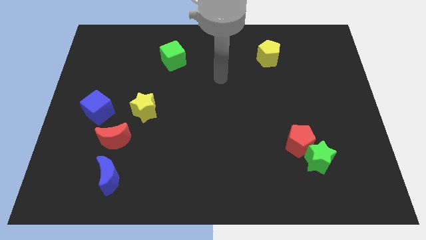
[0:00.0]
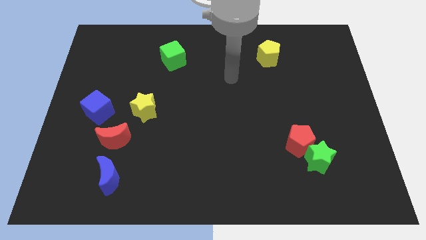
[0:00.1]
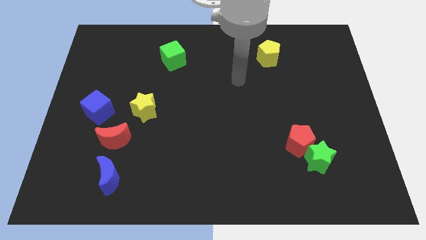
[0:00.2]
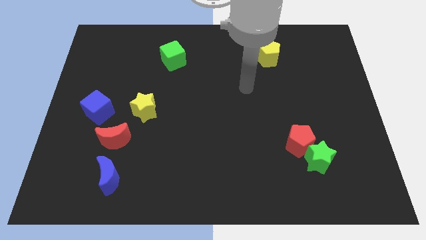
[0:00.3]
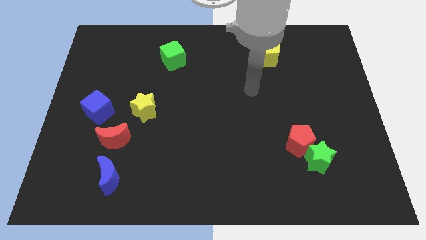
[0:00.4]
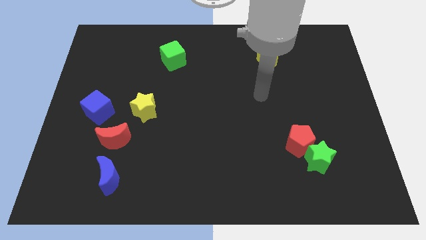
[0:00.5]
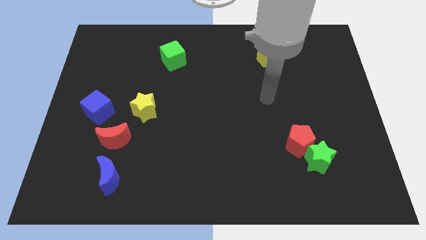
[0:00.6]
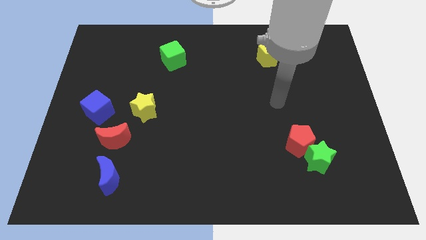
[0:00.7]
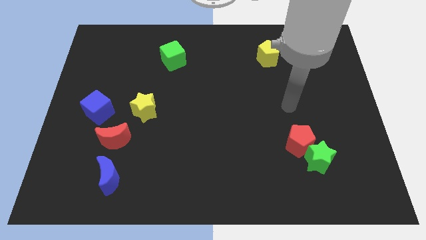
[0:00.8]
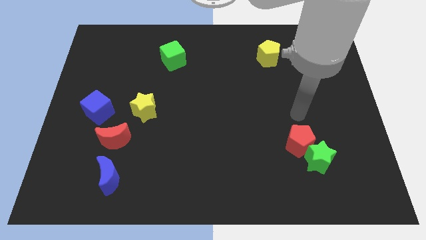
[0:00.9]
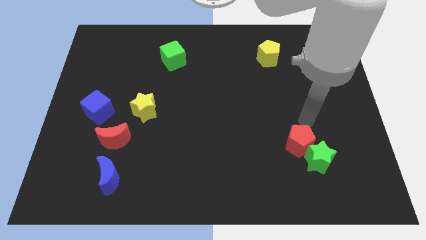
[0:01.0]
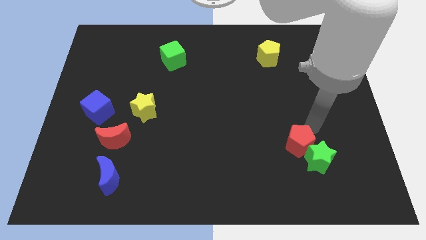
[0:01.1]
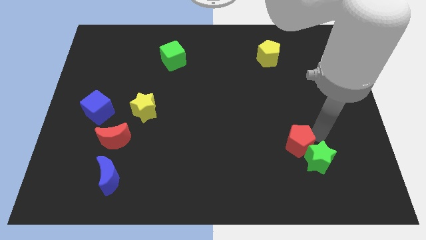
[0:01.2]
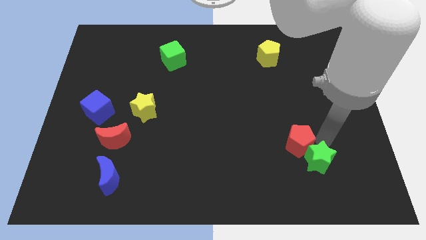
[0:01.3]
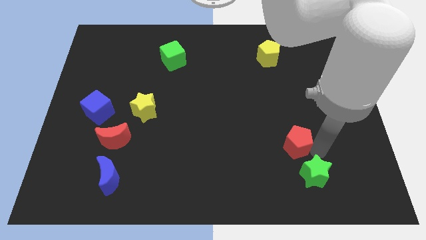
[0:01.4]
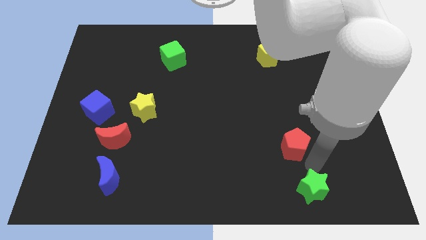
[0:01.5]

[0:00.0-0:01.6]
separate the red pentagon from the green star

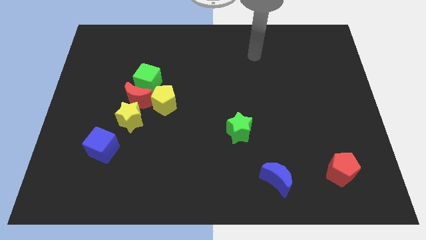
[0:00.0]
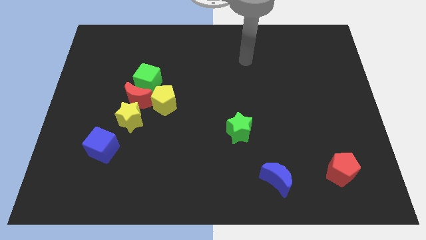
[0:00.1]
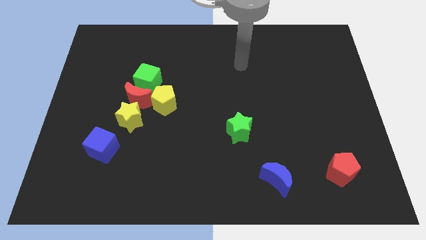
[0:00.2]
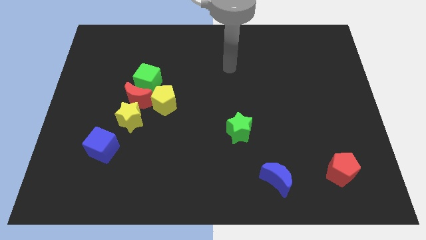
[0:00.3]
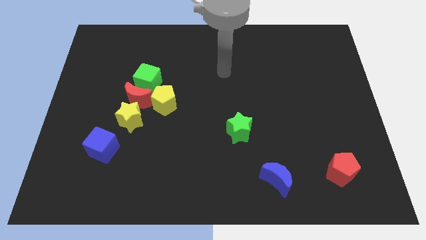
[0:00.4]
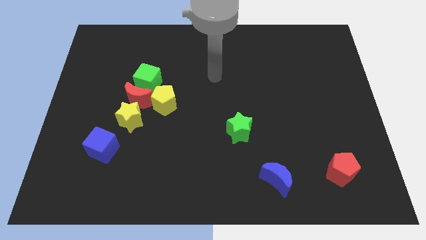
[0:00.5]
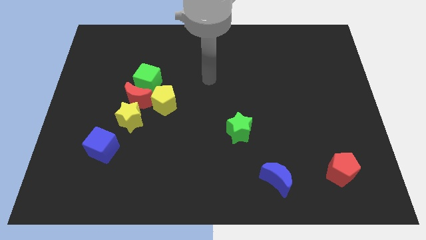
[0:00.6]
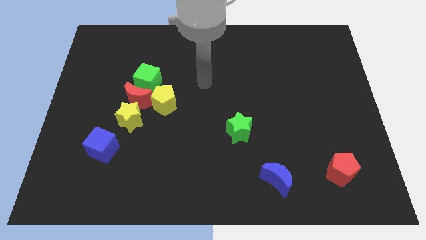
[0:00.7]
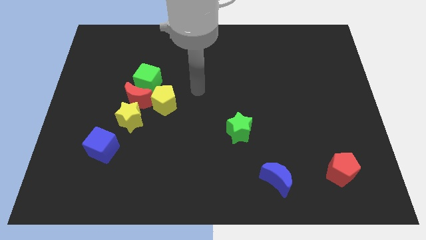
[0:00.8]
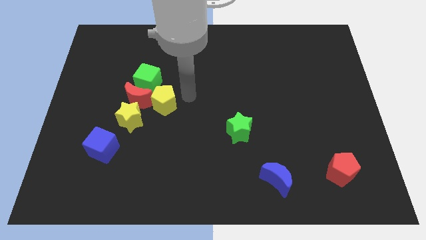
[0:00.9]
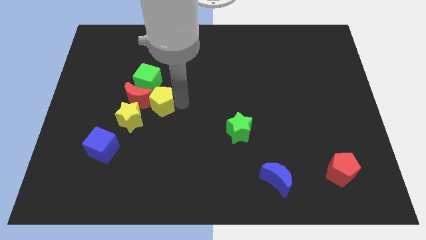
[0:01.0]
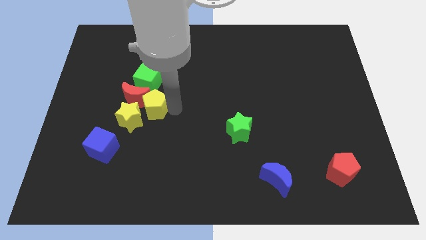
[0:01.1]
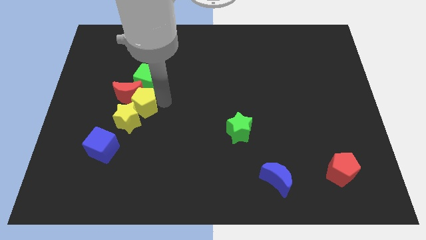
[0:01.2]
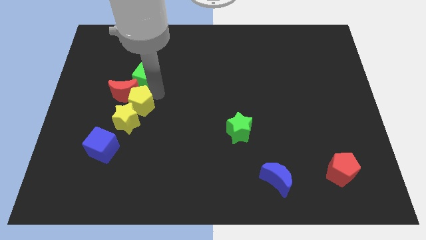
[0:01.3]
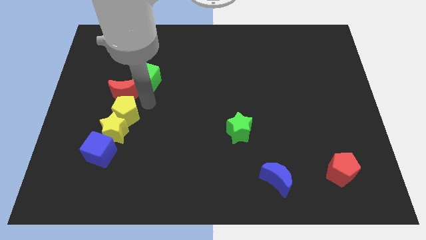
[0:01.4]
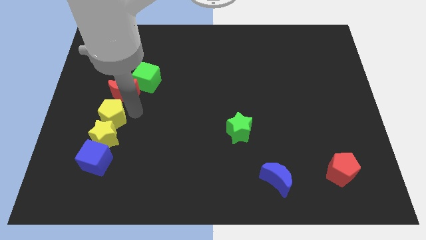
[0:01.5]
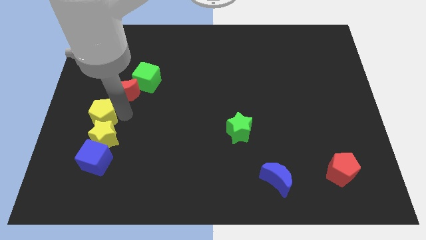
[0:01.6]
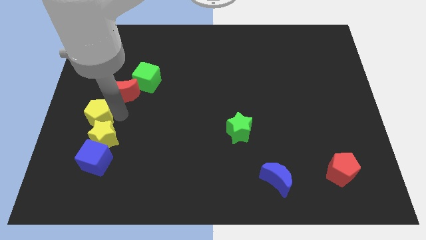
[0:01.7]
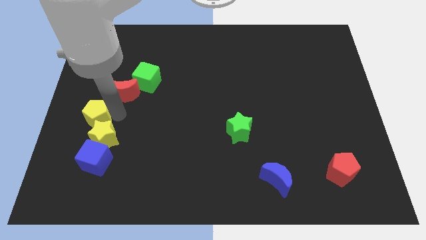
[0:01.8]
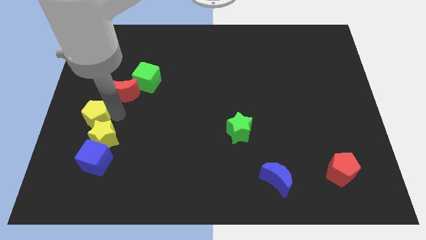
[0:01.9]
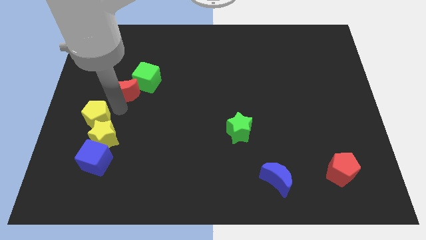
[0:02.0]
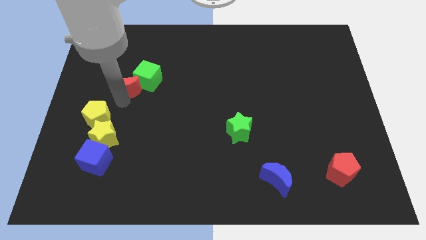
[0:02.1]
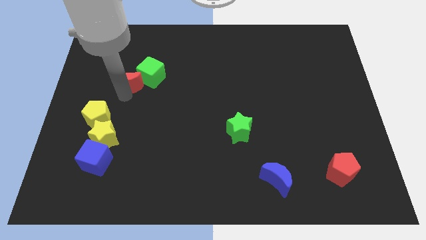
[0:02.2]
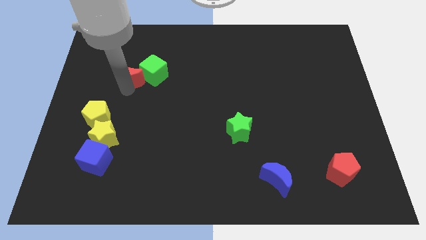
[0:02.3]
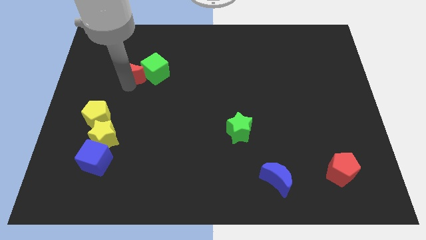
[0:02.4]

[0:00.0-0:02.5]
move the red moon away from the yellow star, green cube, and yellow pentagon

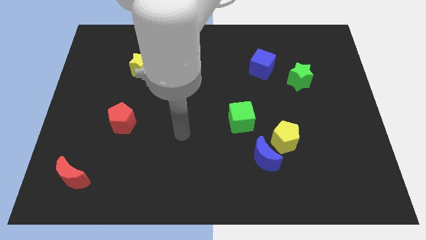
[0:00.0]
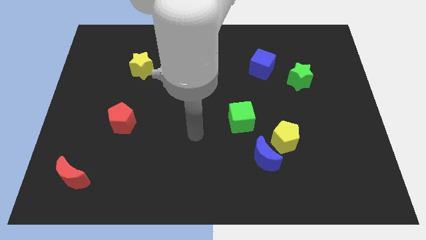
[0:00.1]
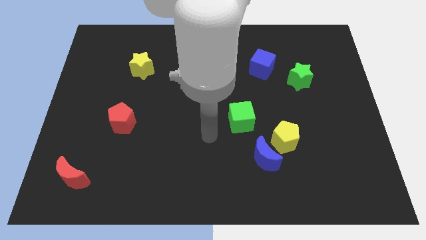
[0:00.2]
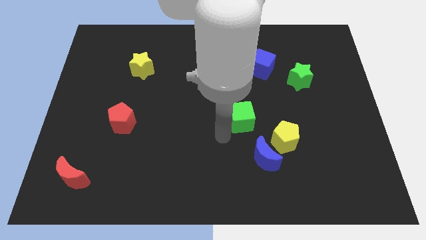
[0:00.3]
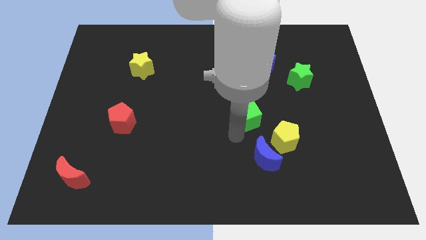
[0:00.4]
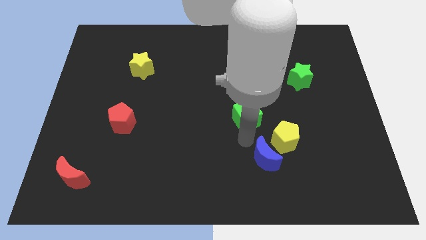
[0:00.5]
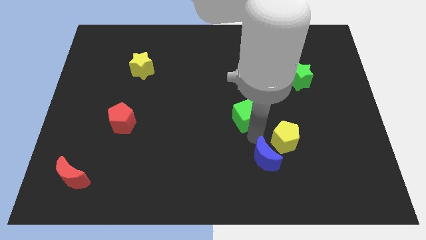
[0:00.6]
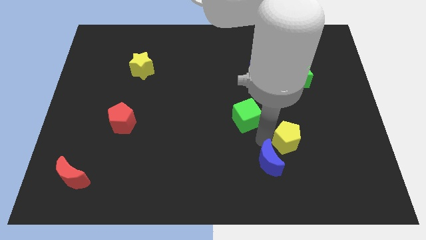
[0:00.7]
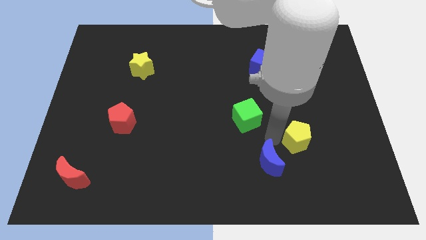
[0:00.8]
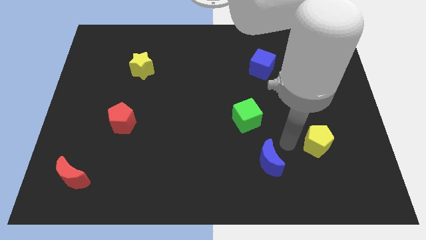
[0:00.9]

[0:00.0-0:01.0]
separate the blue moon from the yellow pentagon

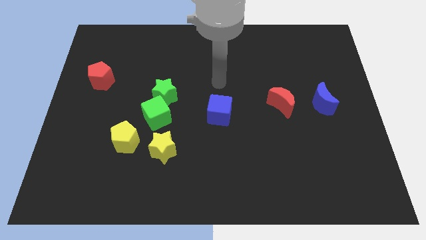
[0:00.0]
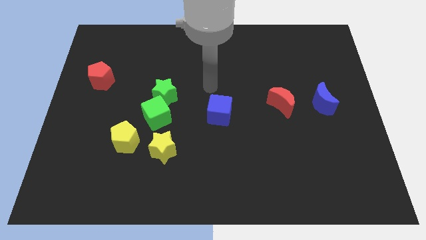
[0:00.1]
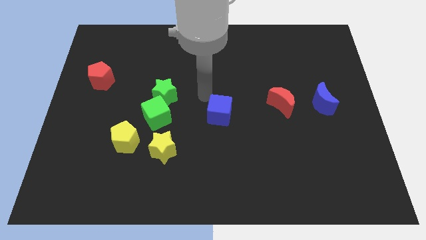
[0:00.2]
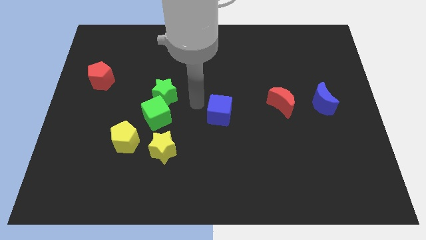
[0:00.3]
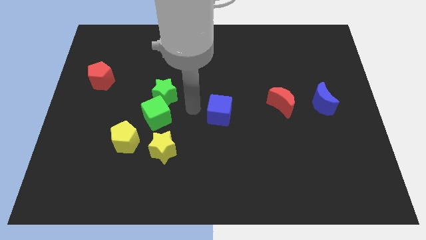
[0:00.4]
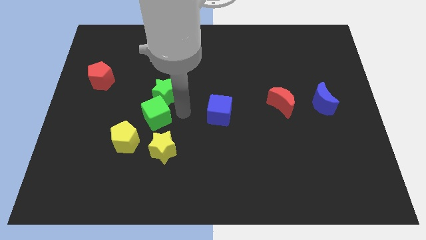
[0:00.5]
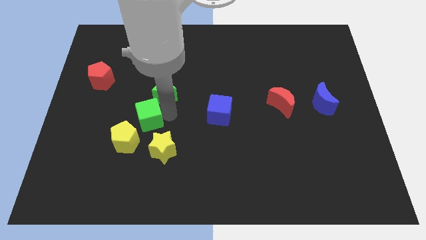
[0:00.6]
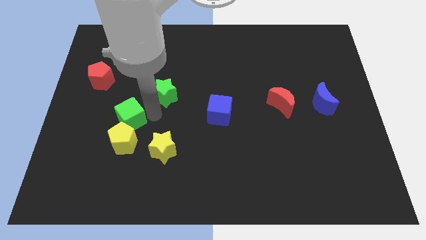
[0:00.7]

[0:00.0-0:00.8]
pull the green star apart from the green cube

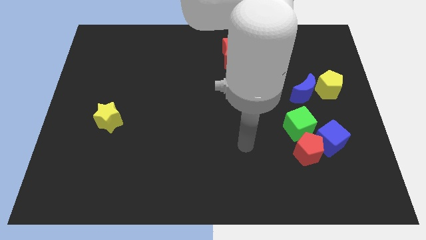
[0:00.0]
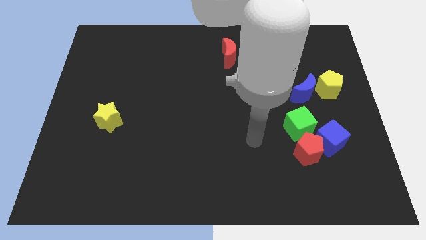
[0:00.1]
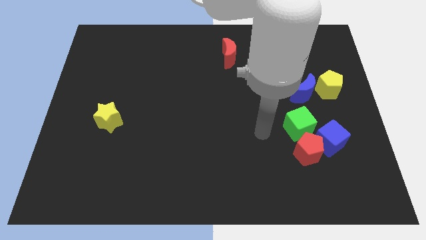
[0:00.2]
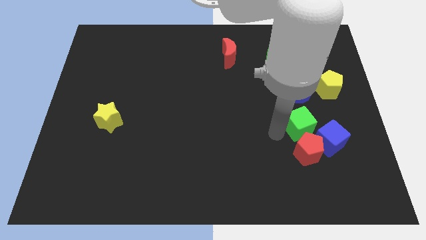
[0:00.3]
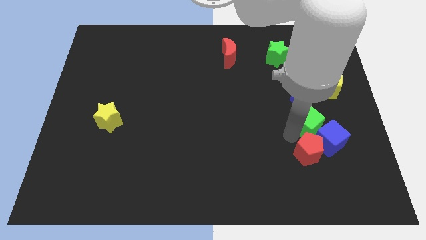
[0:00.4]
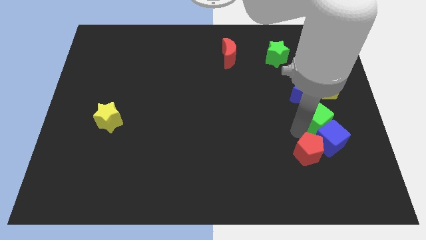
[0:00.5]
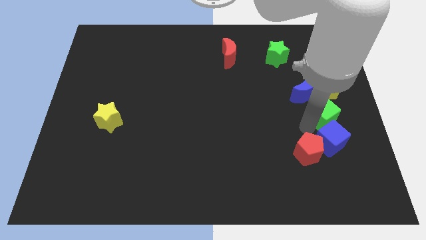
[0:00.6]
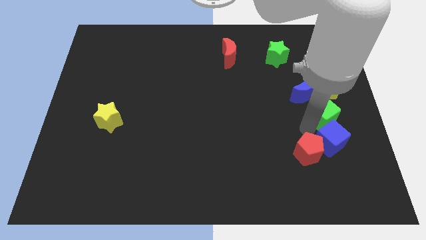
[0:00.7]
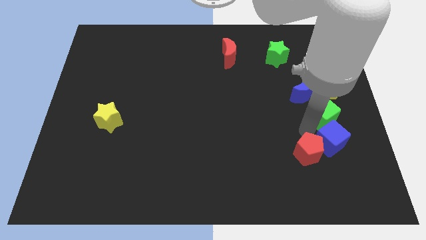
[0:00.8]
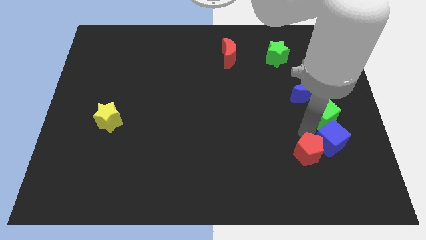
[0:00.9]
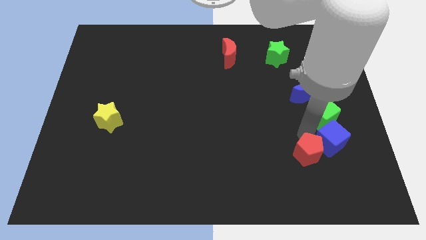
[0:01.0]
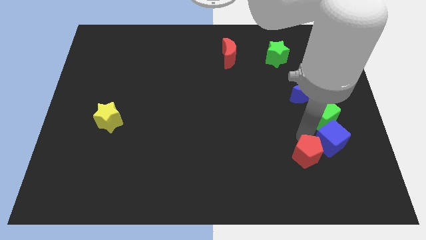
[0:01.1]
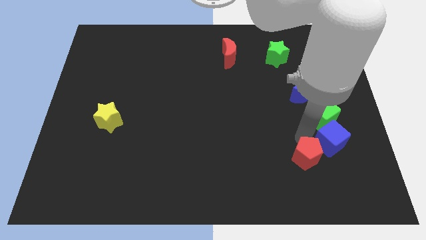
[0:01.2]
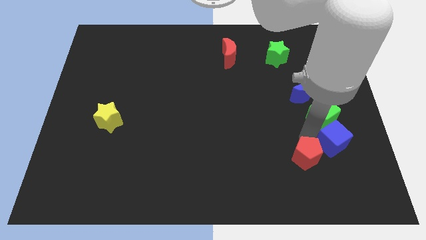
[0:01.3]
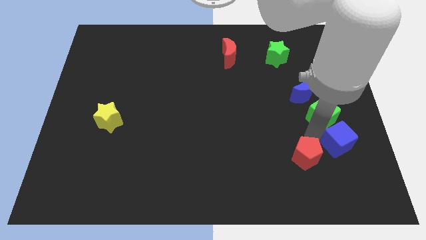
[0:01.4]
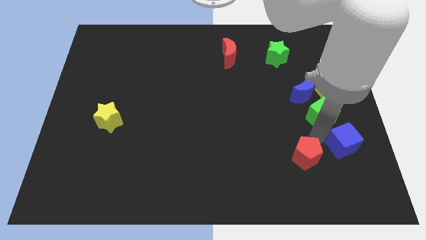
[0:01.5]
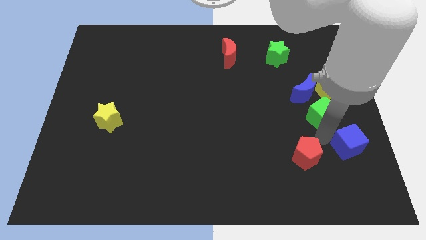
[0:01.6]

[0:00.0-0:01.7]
move the red pentagon away from the blue cube and green cube

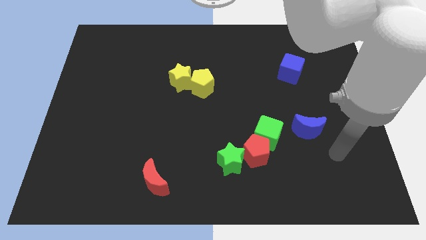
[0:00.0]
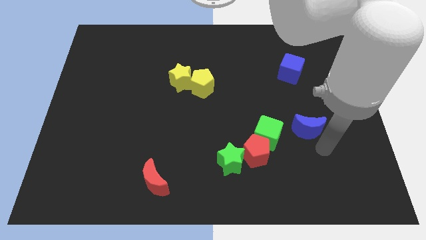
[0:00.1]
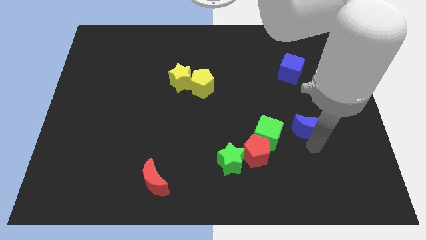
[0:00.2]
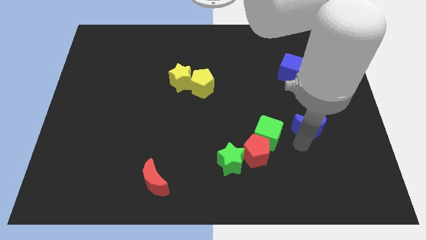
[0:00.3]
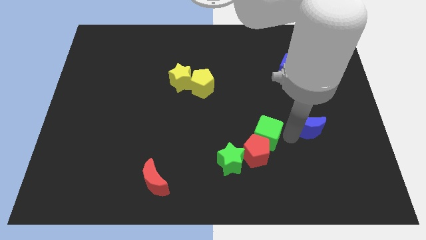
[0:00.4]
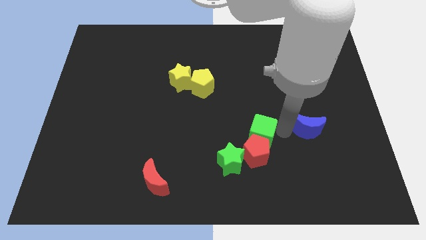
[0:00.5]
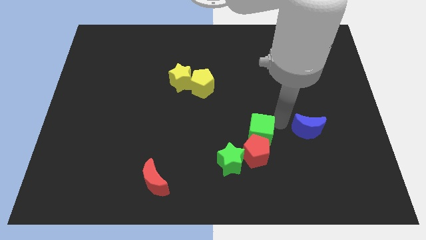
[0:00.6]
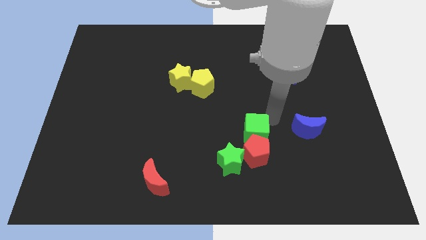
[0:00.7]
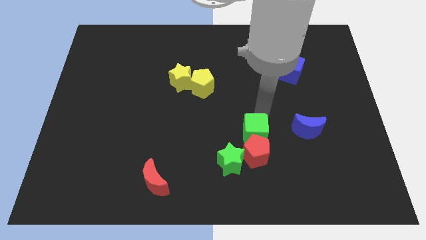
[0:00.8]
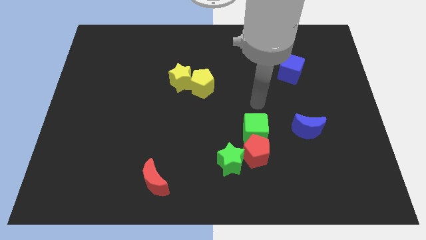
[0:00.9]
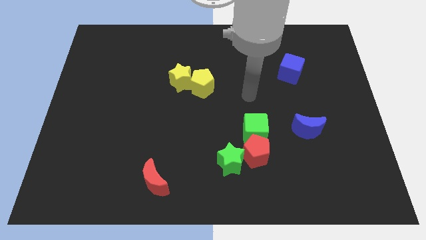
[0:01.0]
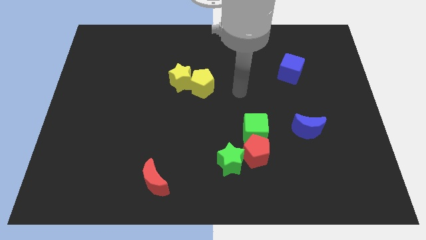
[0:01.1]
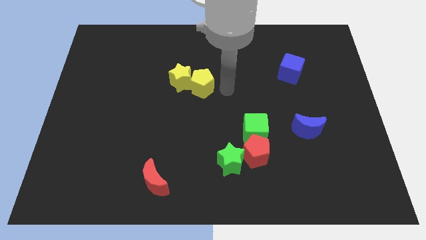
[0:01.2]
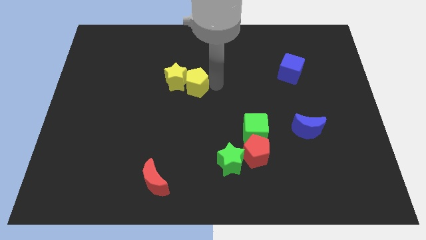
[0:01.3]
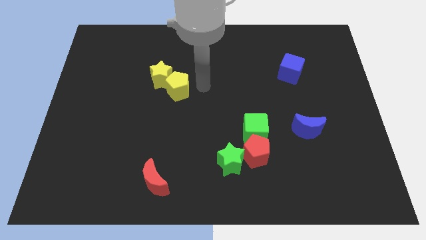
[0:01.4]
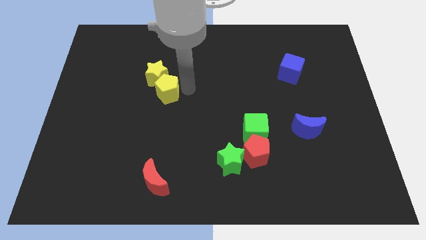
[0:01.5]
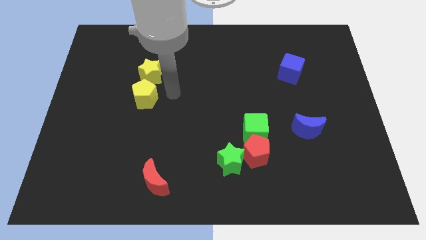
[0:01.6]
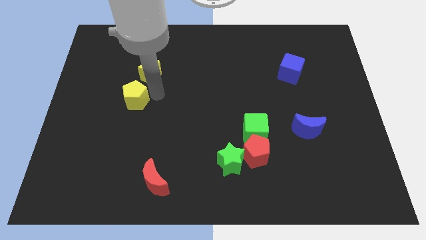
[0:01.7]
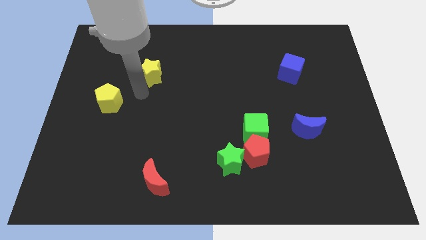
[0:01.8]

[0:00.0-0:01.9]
pull the yellow star apart from the yellow pentagon
